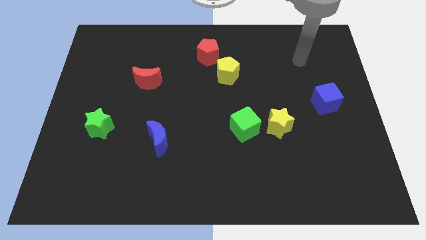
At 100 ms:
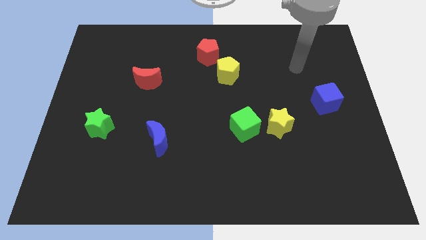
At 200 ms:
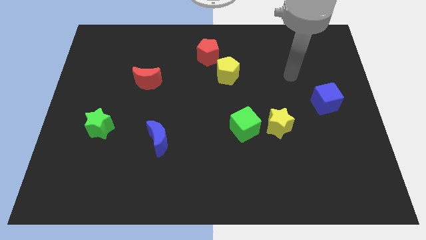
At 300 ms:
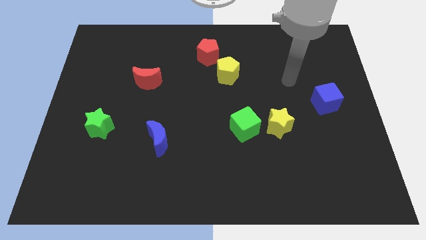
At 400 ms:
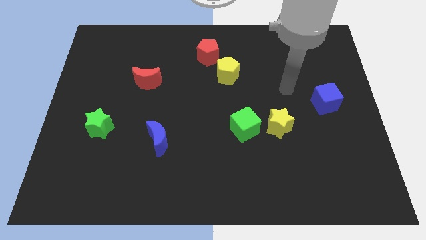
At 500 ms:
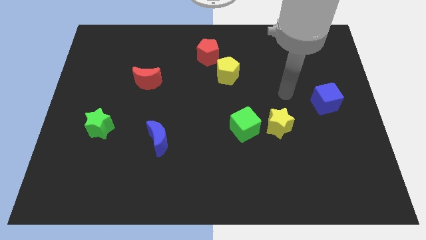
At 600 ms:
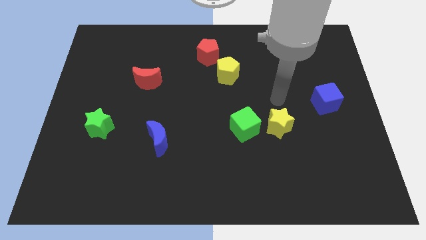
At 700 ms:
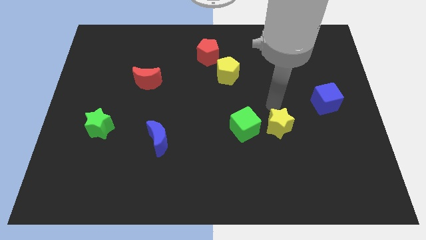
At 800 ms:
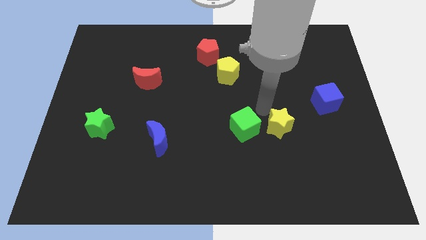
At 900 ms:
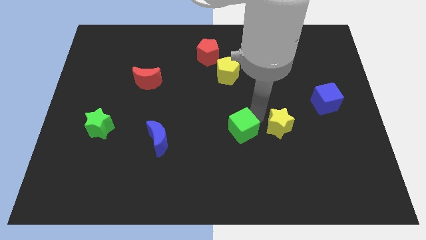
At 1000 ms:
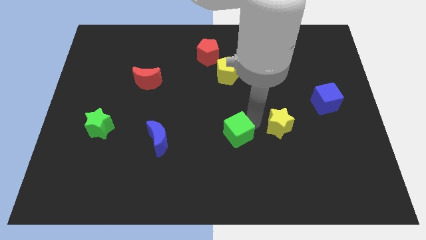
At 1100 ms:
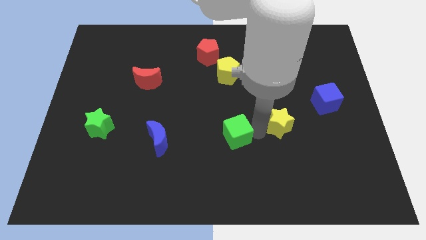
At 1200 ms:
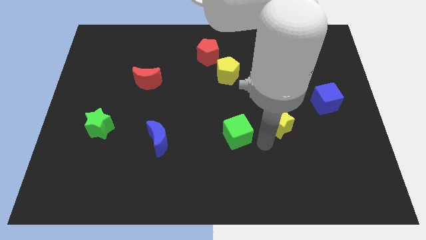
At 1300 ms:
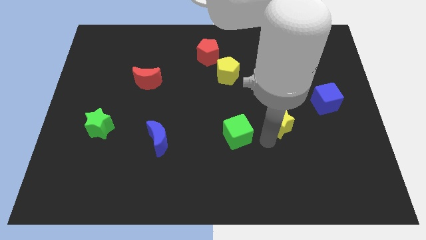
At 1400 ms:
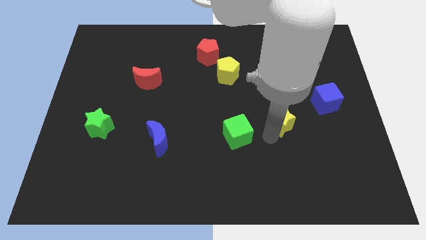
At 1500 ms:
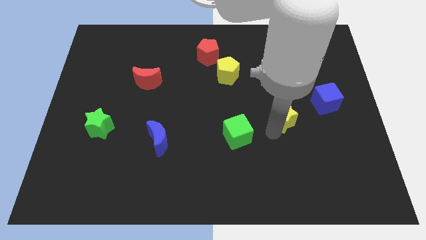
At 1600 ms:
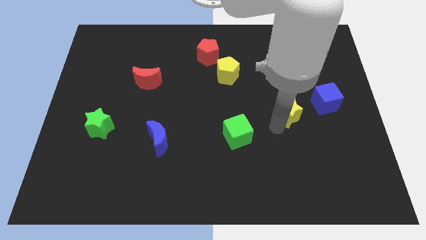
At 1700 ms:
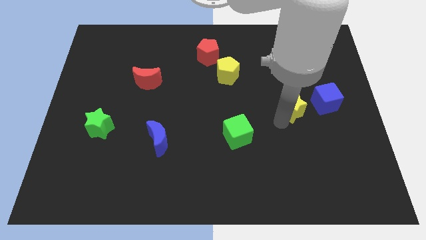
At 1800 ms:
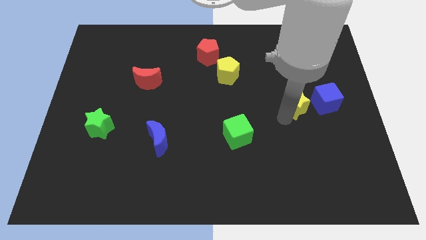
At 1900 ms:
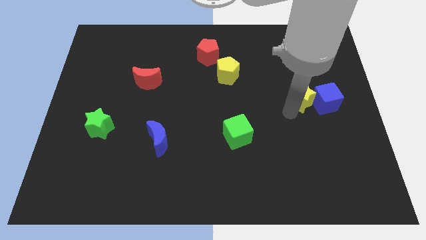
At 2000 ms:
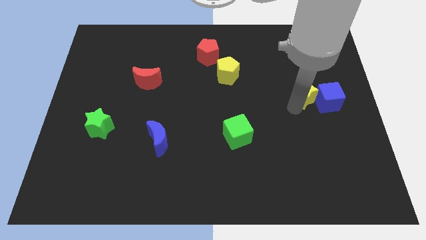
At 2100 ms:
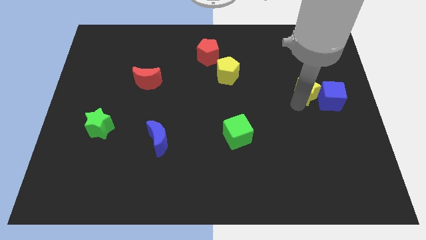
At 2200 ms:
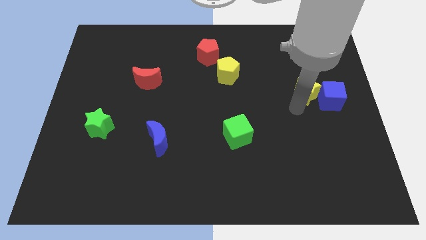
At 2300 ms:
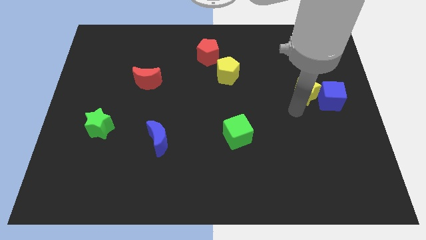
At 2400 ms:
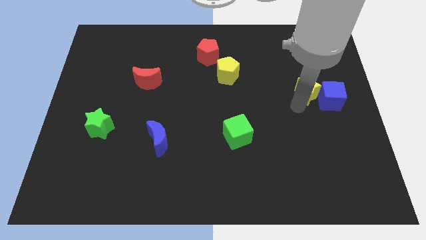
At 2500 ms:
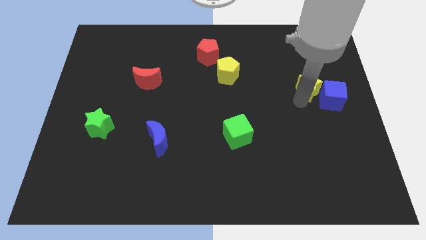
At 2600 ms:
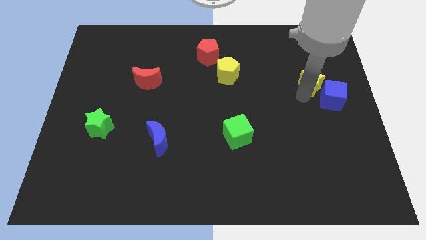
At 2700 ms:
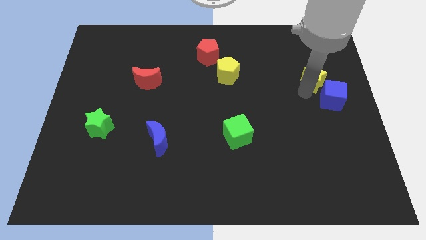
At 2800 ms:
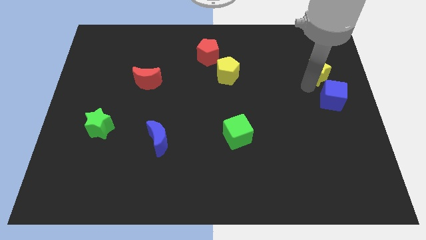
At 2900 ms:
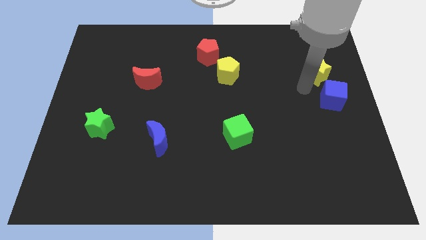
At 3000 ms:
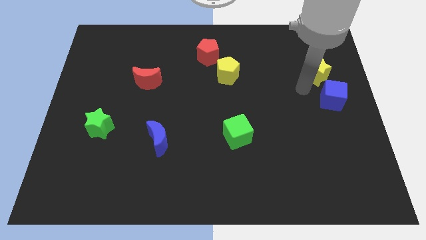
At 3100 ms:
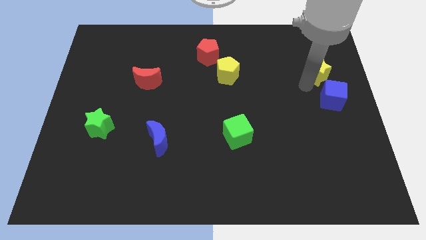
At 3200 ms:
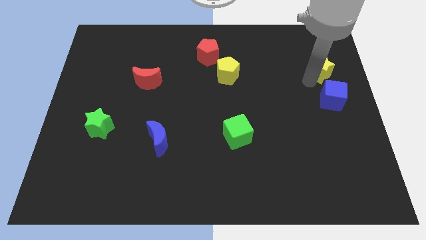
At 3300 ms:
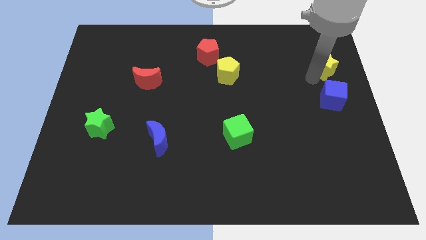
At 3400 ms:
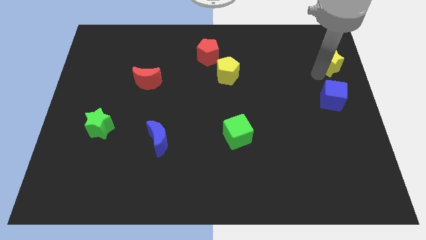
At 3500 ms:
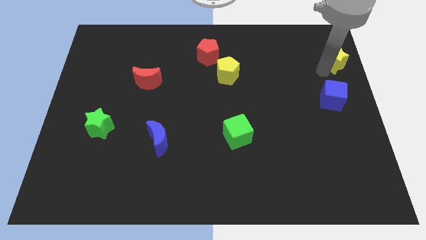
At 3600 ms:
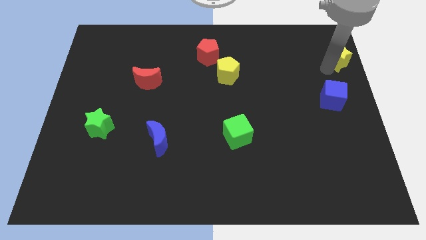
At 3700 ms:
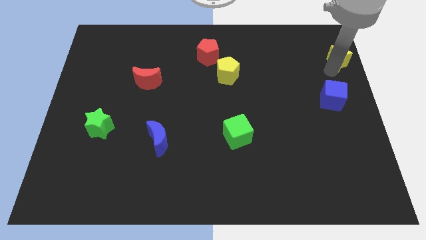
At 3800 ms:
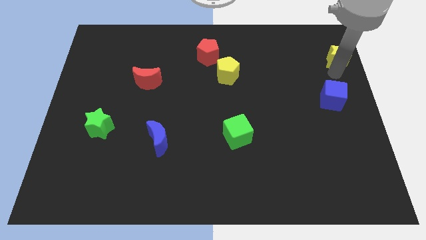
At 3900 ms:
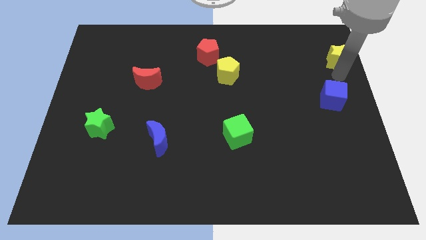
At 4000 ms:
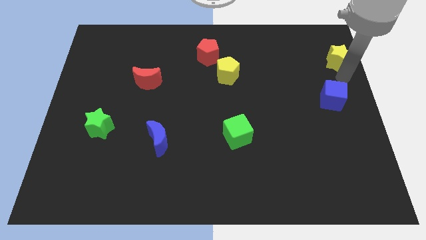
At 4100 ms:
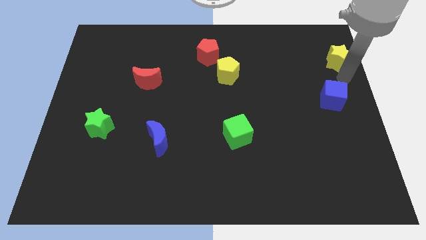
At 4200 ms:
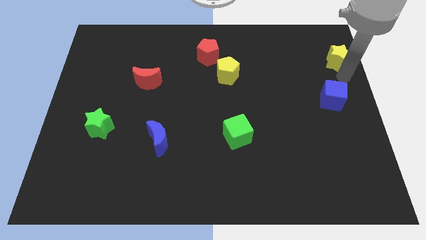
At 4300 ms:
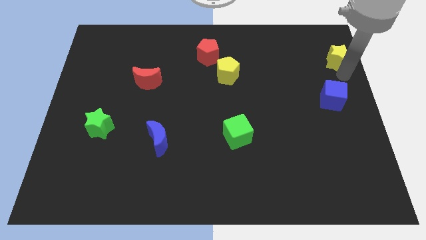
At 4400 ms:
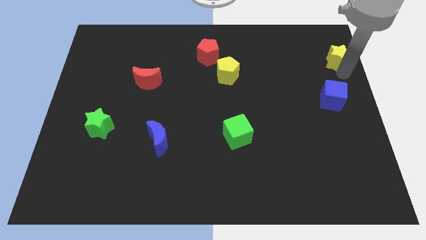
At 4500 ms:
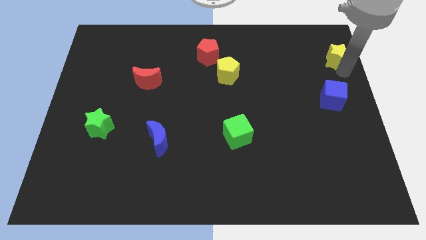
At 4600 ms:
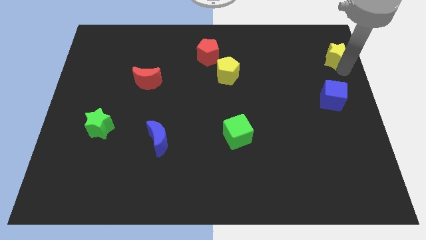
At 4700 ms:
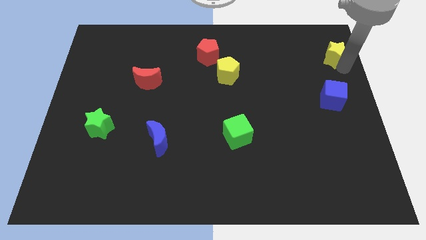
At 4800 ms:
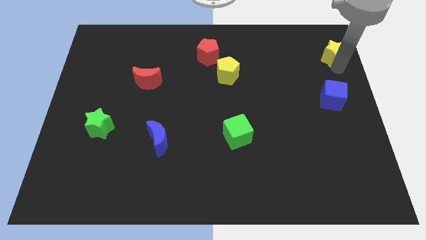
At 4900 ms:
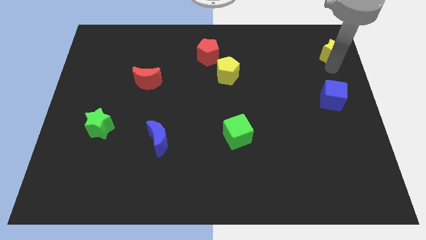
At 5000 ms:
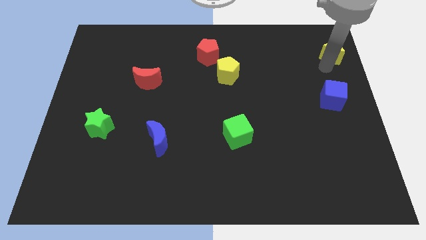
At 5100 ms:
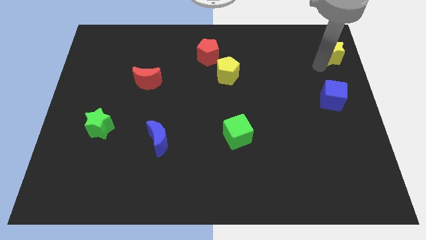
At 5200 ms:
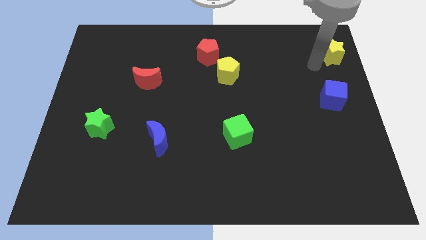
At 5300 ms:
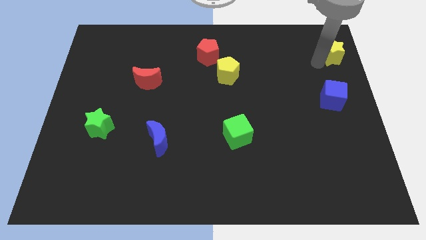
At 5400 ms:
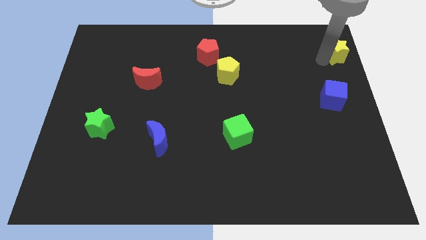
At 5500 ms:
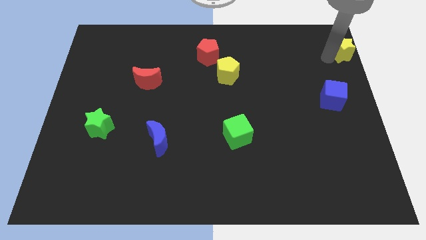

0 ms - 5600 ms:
move the yellow star to the upper right corner

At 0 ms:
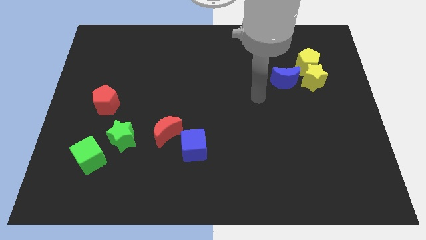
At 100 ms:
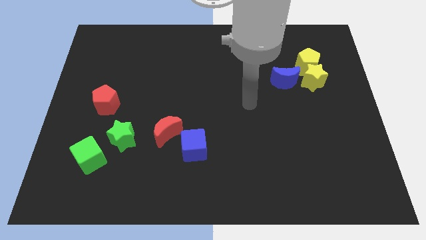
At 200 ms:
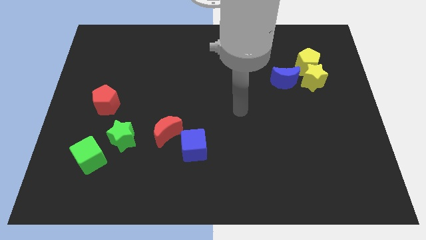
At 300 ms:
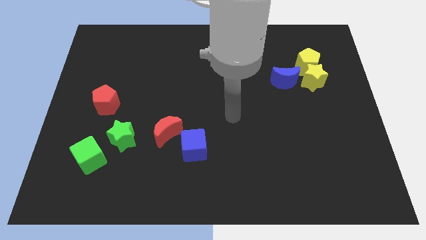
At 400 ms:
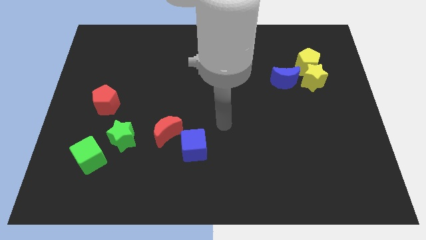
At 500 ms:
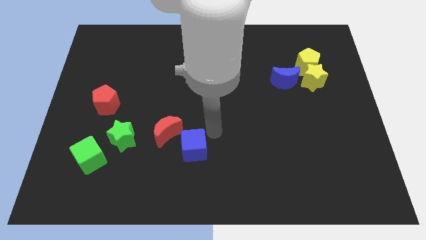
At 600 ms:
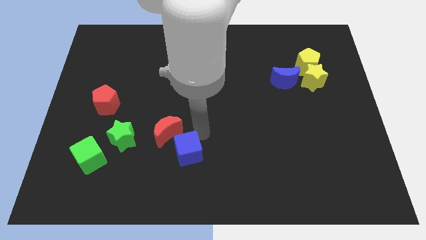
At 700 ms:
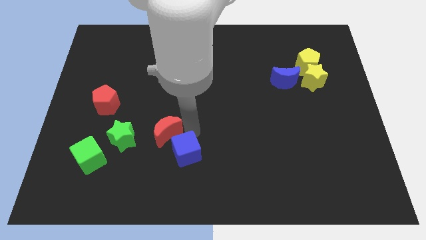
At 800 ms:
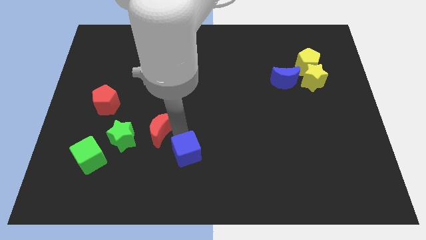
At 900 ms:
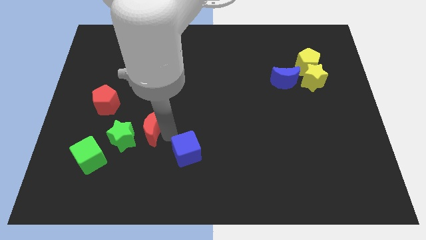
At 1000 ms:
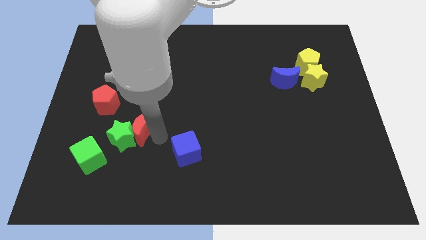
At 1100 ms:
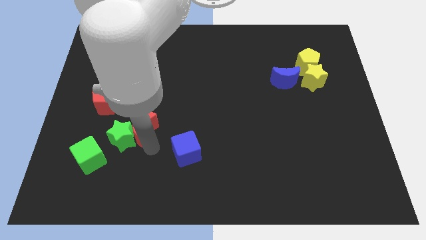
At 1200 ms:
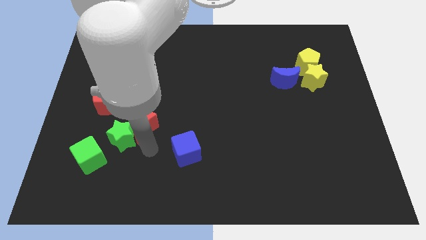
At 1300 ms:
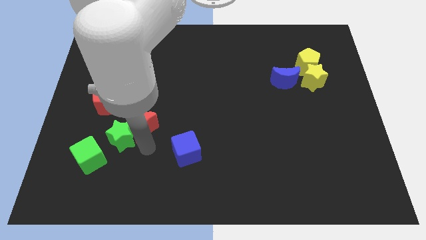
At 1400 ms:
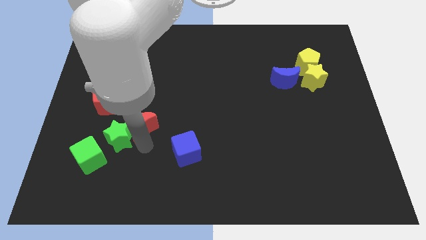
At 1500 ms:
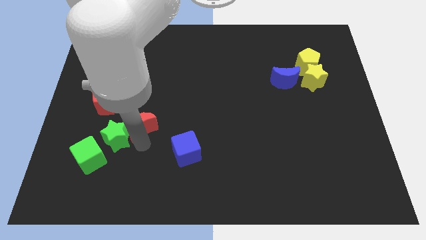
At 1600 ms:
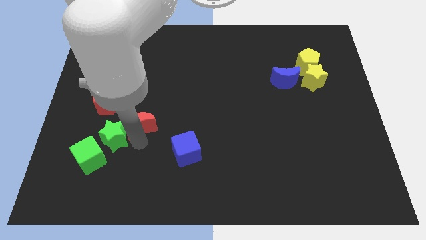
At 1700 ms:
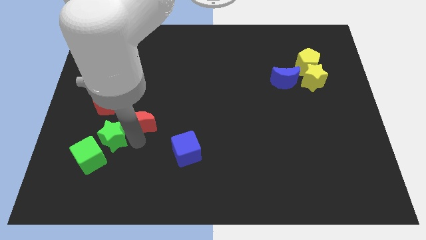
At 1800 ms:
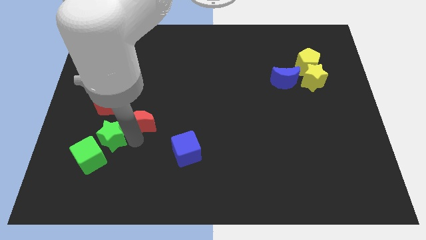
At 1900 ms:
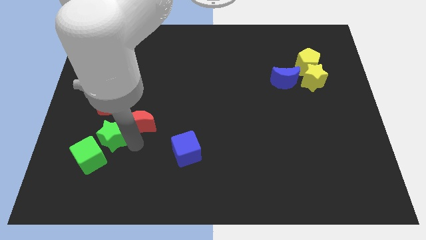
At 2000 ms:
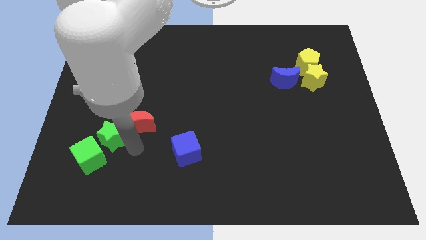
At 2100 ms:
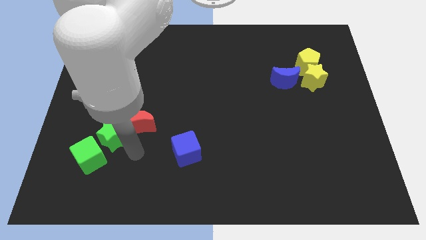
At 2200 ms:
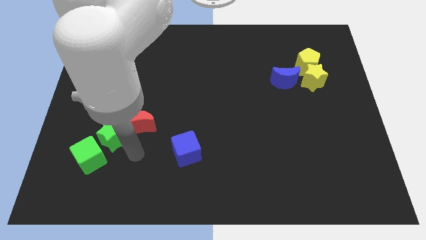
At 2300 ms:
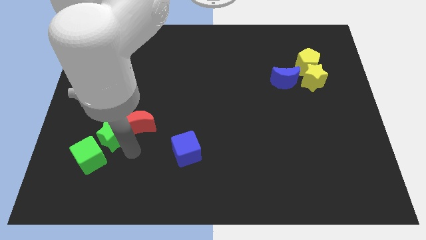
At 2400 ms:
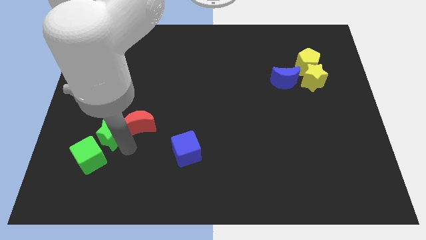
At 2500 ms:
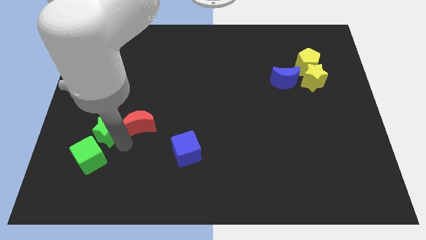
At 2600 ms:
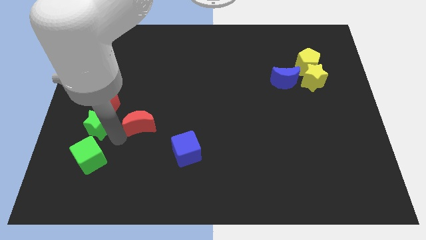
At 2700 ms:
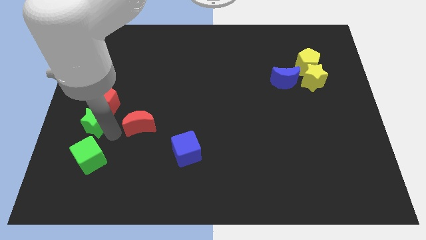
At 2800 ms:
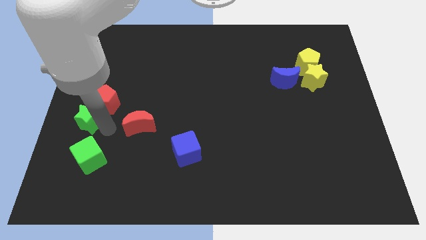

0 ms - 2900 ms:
slide the green star to the center left
